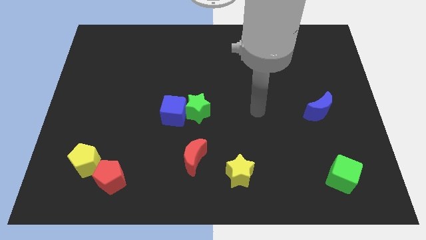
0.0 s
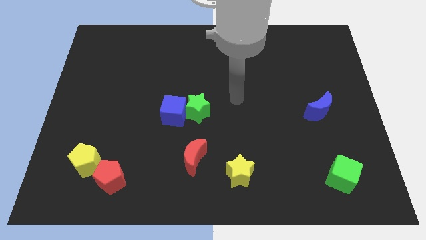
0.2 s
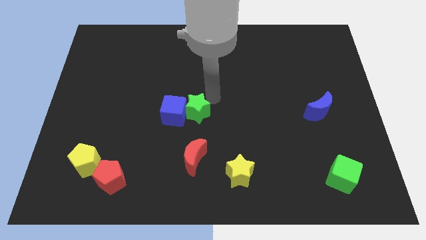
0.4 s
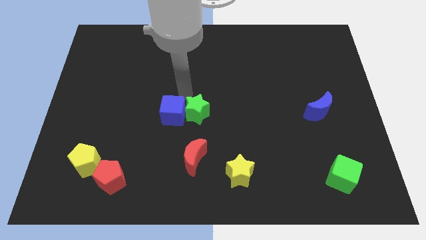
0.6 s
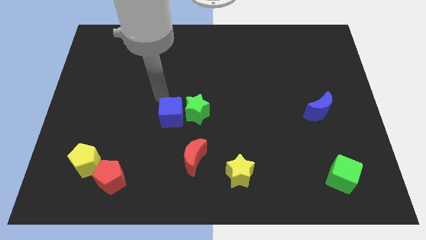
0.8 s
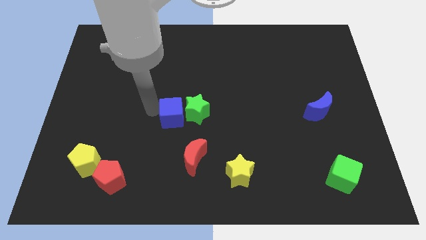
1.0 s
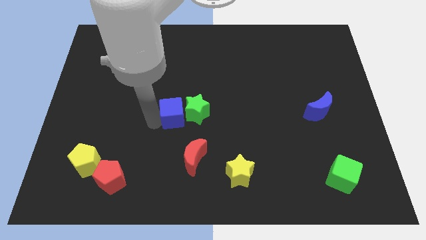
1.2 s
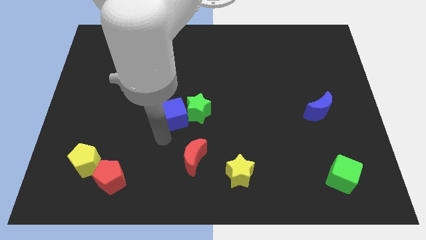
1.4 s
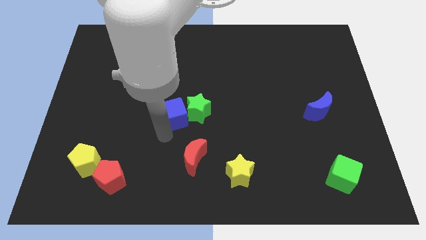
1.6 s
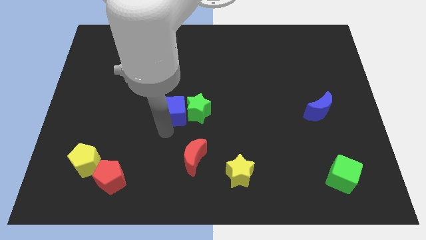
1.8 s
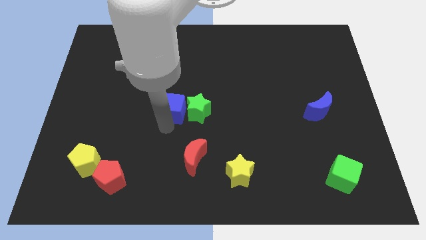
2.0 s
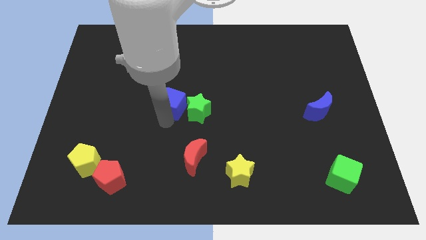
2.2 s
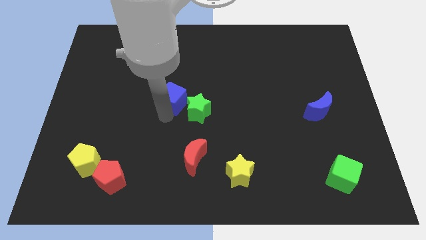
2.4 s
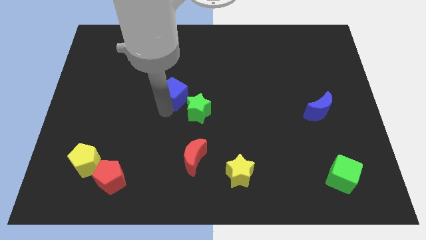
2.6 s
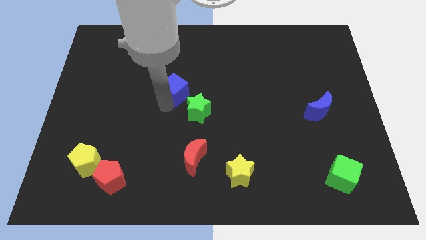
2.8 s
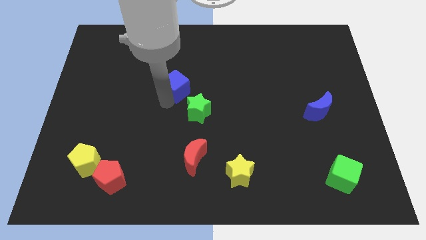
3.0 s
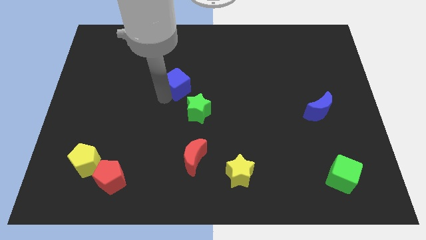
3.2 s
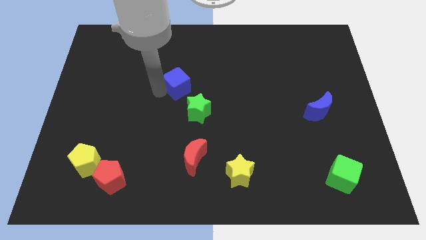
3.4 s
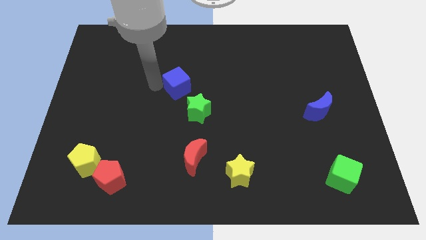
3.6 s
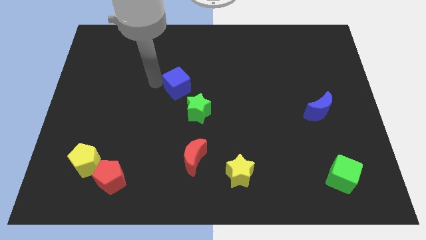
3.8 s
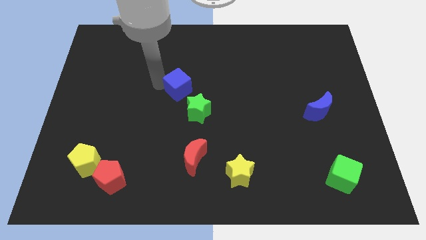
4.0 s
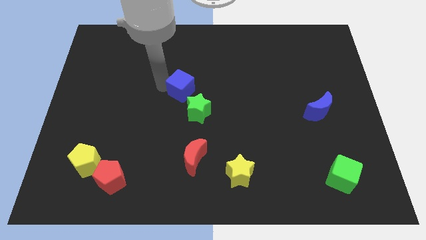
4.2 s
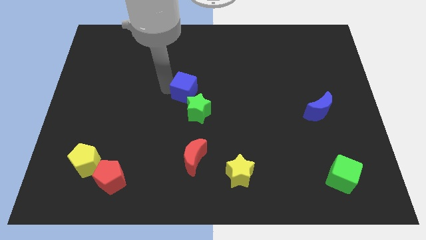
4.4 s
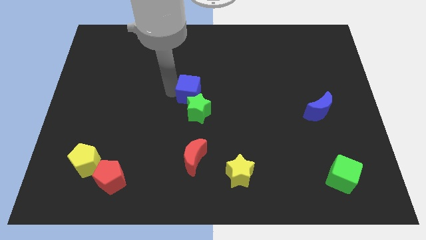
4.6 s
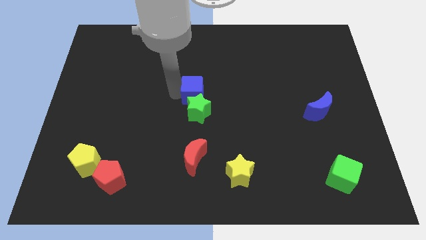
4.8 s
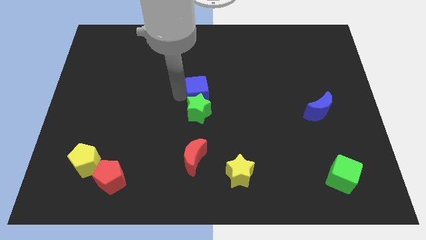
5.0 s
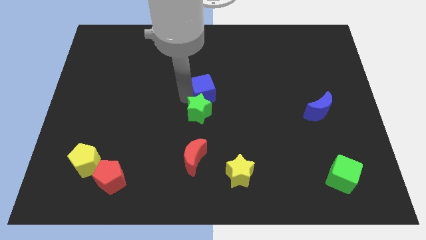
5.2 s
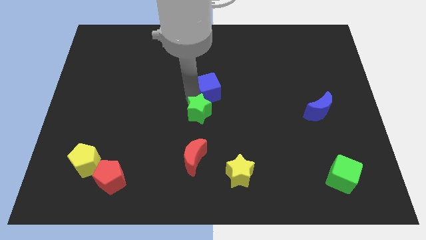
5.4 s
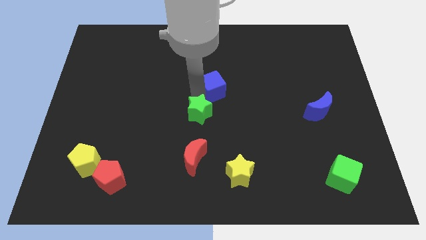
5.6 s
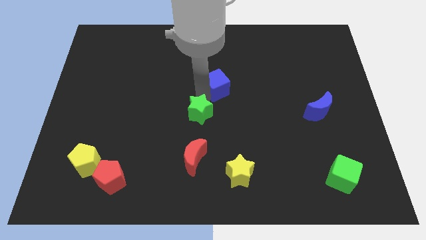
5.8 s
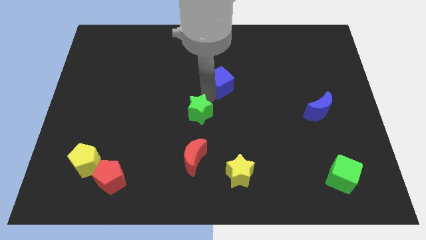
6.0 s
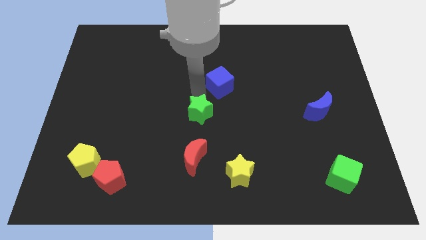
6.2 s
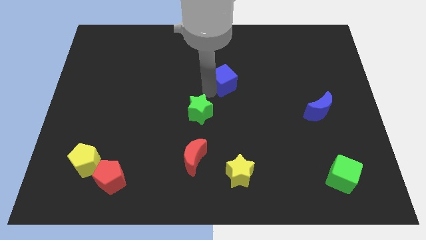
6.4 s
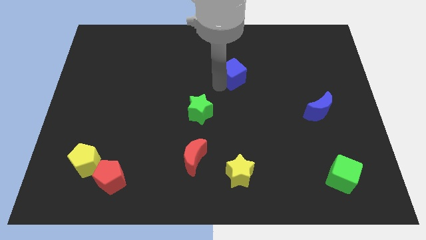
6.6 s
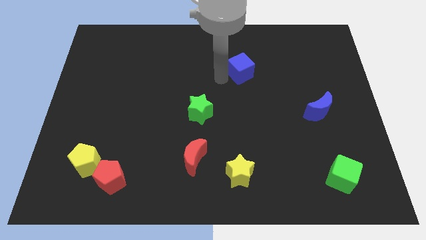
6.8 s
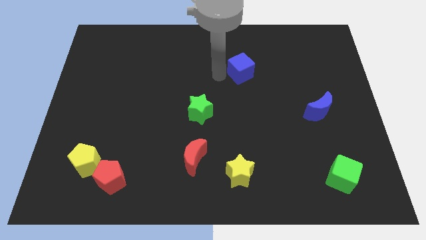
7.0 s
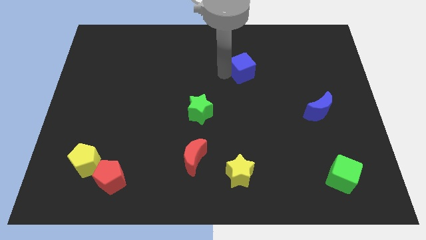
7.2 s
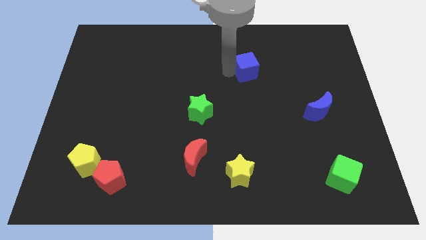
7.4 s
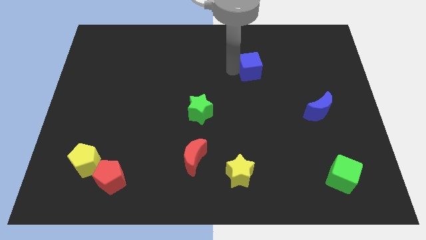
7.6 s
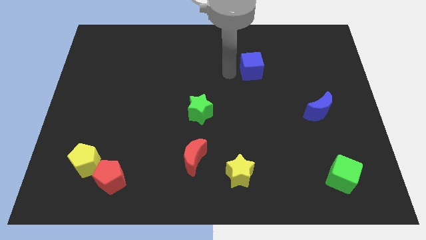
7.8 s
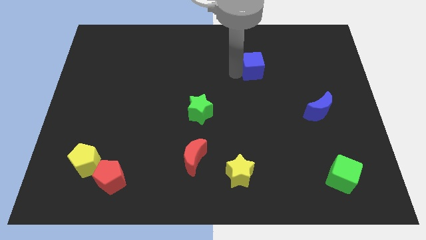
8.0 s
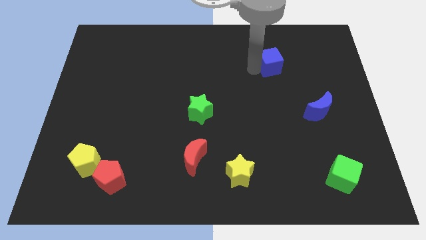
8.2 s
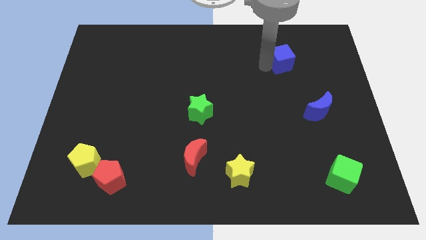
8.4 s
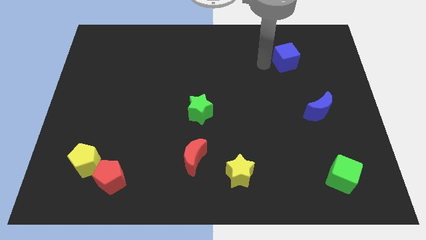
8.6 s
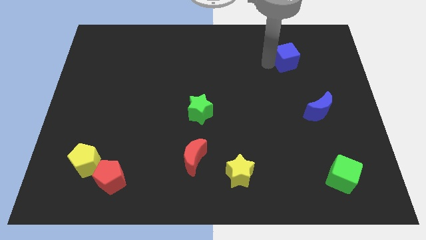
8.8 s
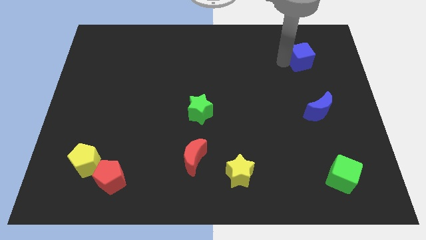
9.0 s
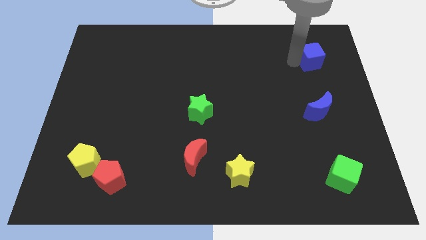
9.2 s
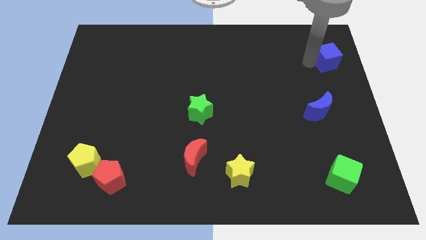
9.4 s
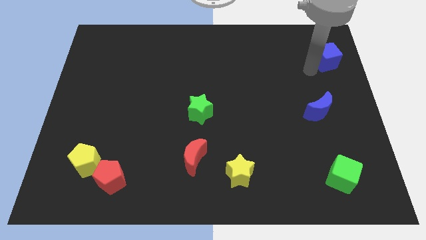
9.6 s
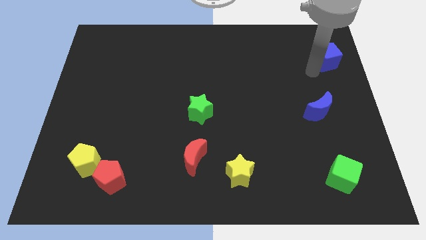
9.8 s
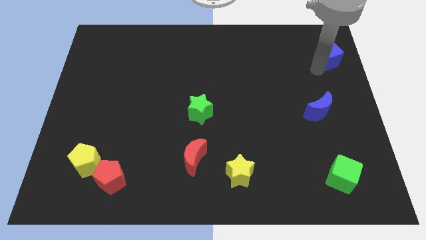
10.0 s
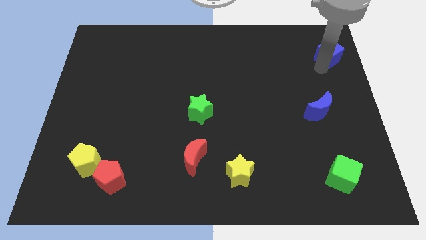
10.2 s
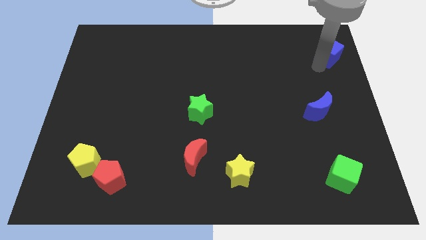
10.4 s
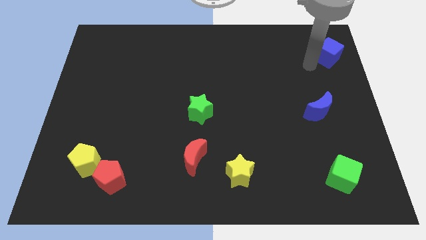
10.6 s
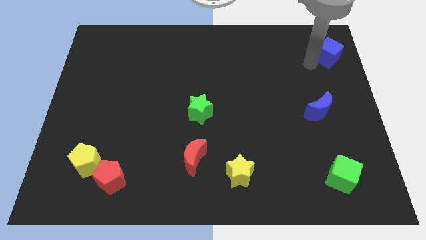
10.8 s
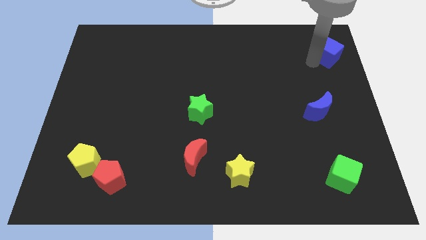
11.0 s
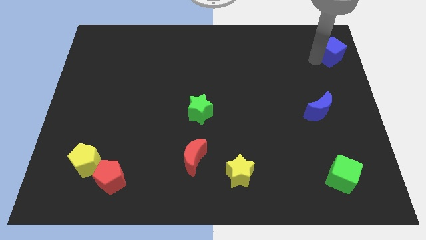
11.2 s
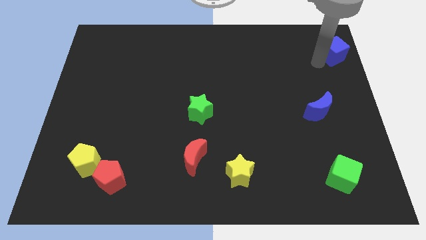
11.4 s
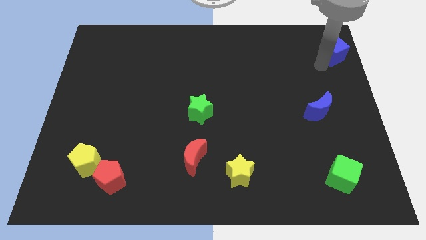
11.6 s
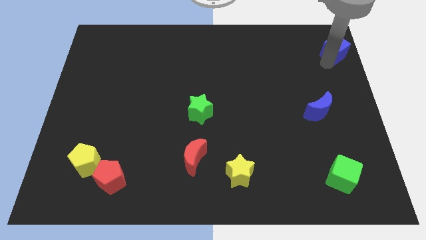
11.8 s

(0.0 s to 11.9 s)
move the blue cube to the top right corner
